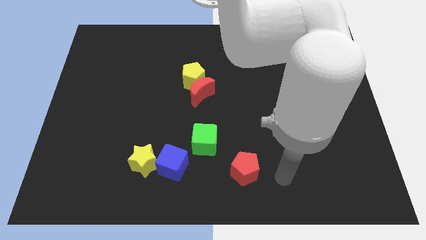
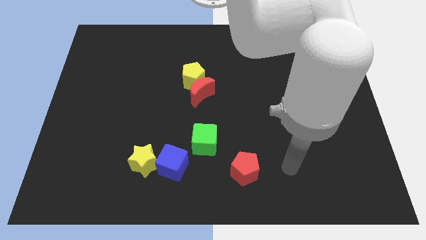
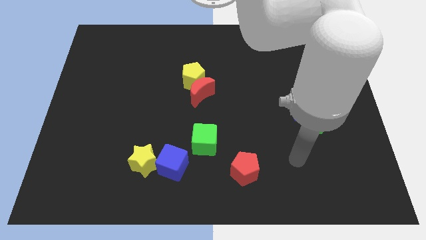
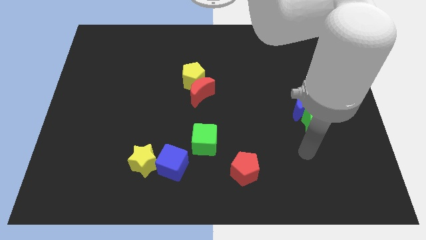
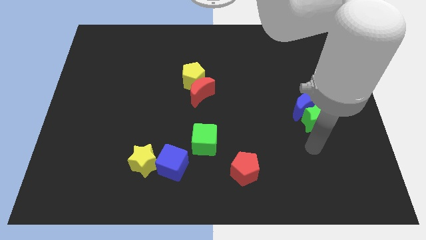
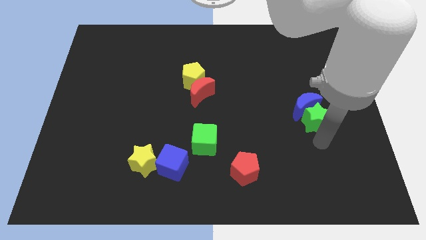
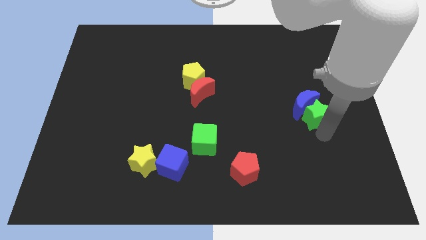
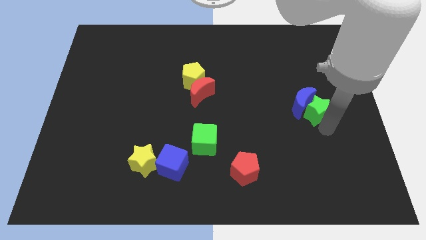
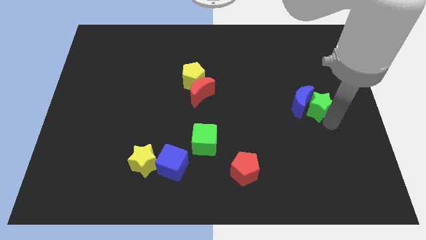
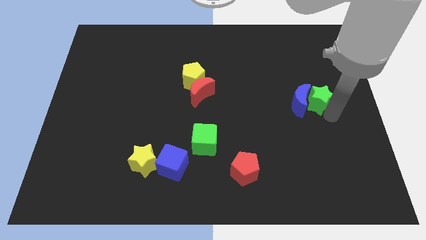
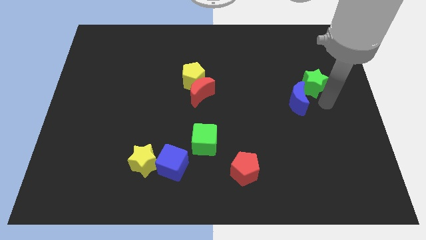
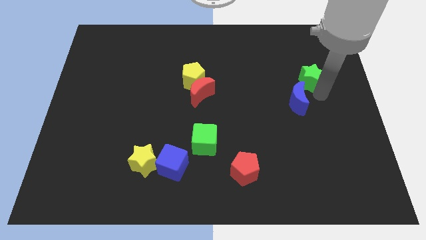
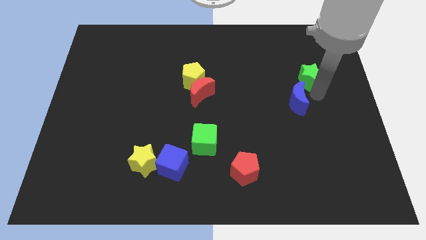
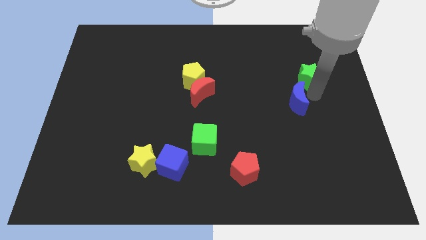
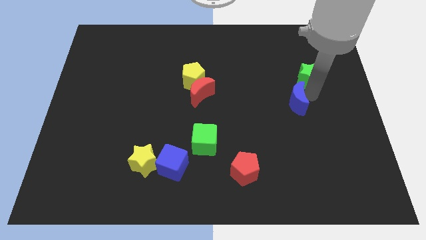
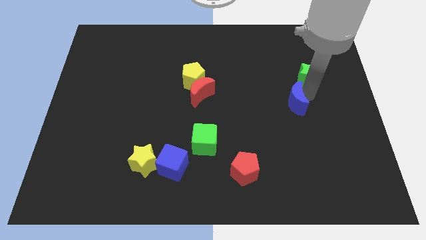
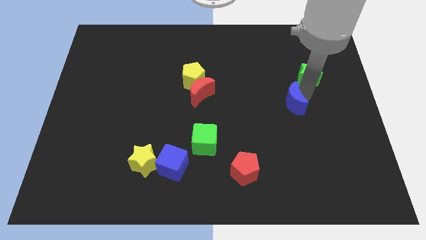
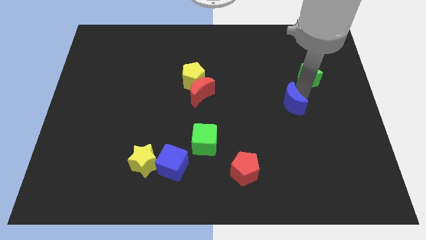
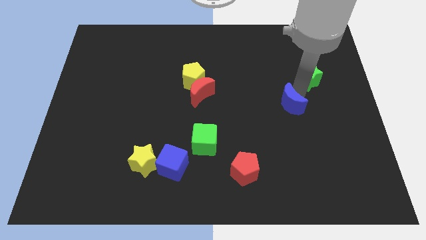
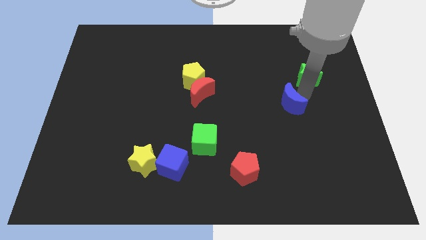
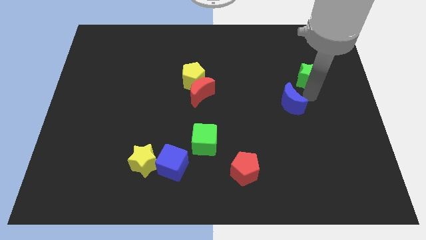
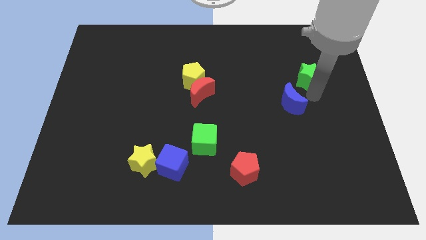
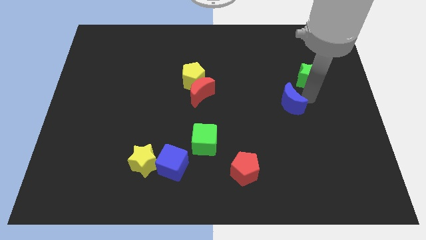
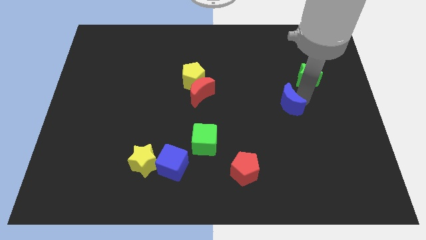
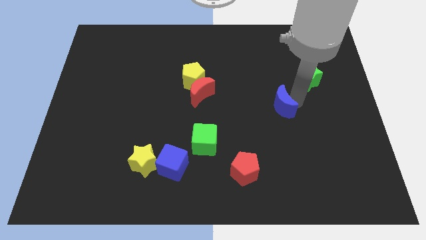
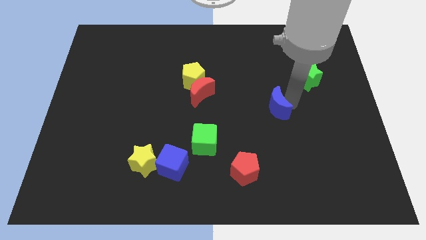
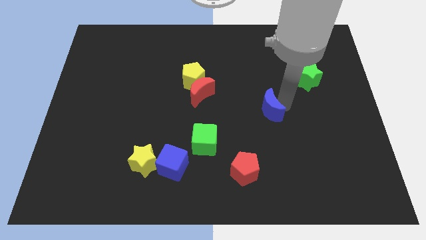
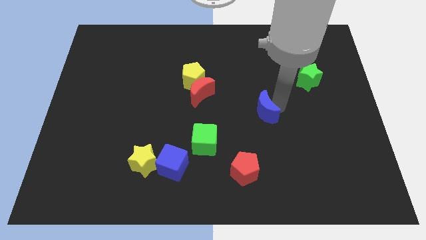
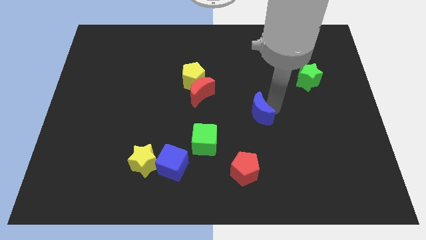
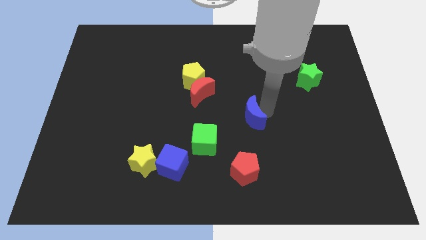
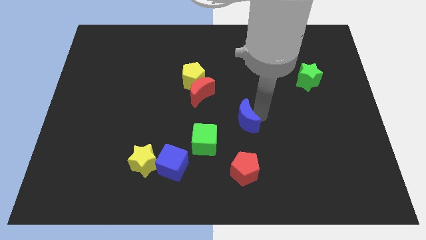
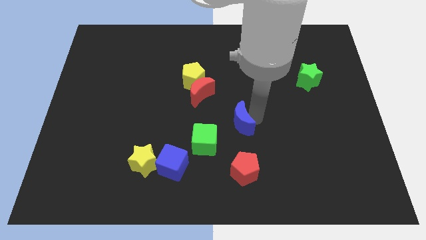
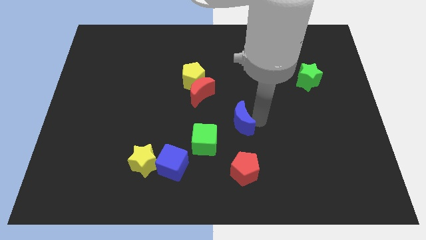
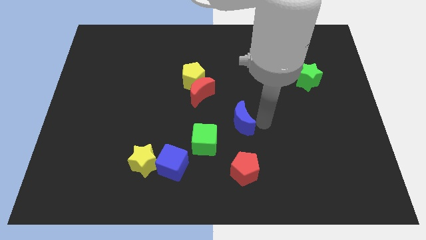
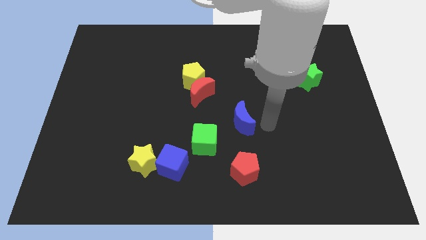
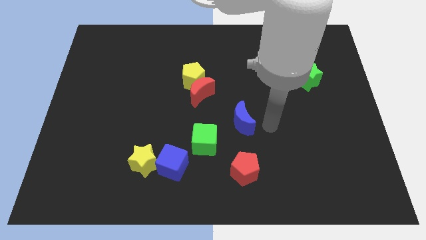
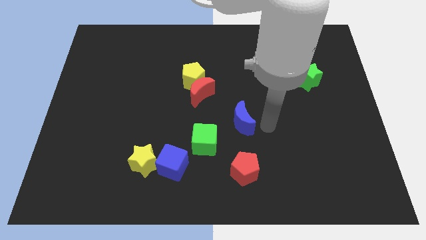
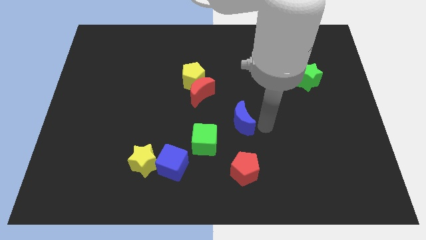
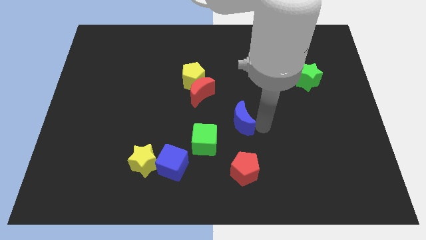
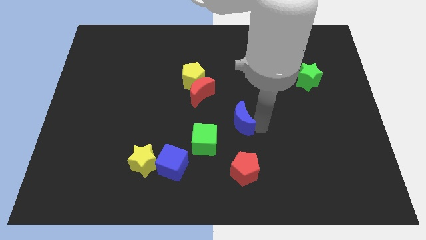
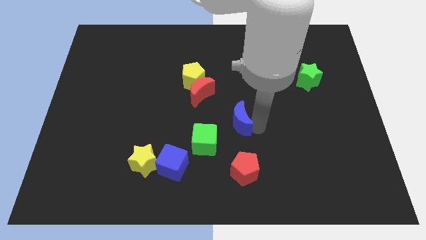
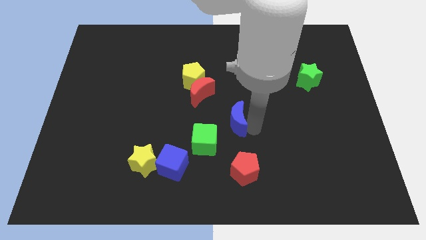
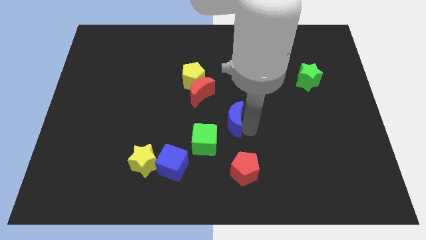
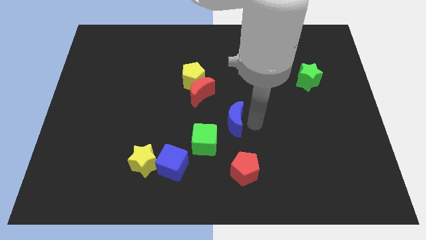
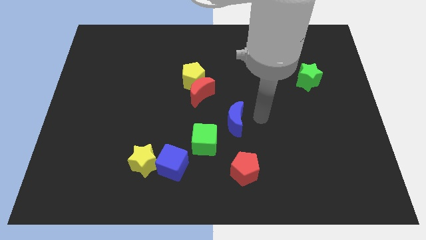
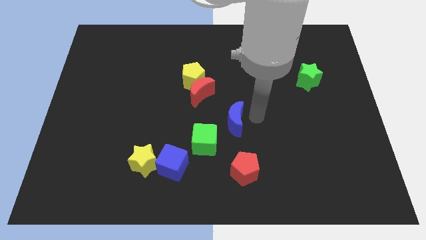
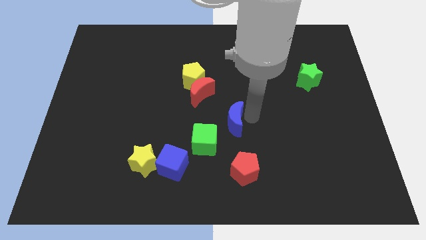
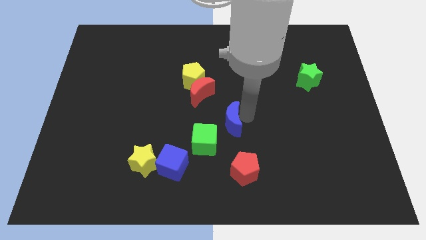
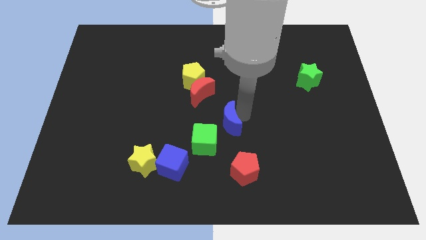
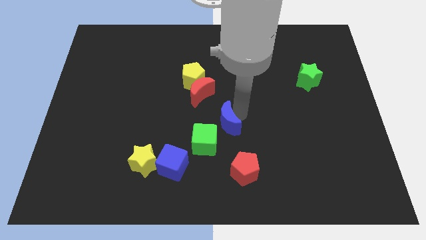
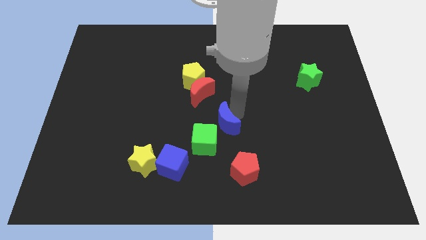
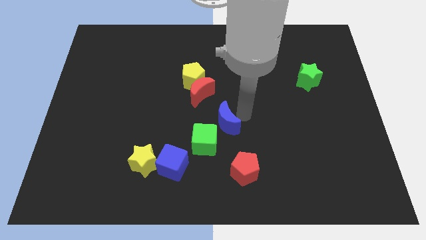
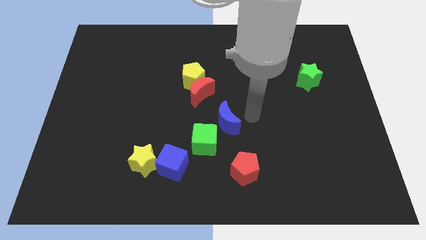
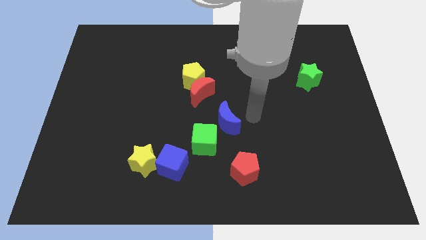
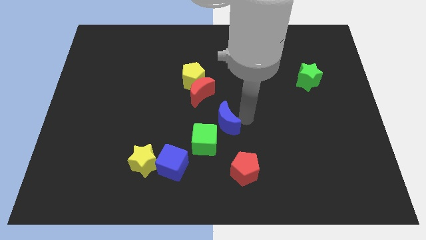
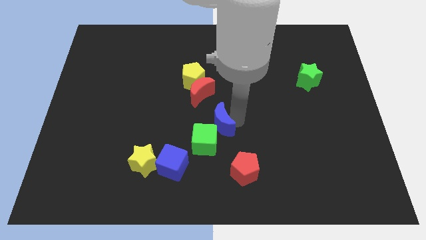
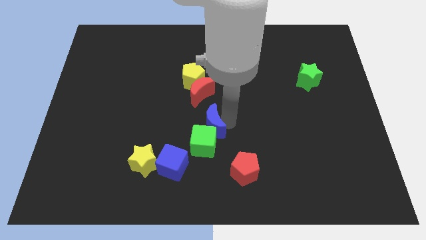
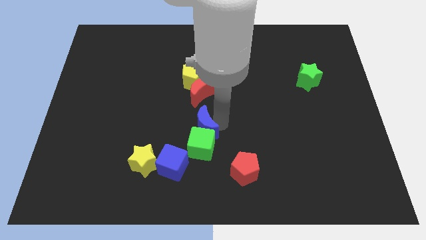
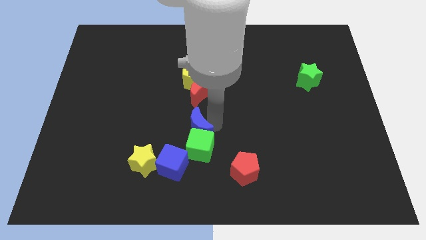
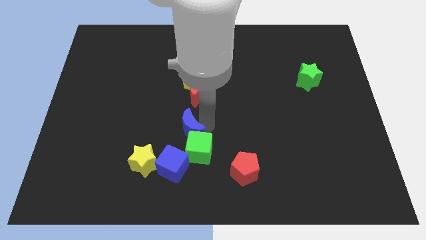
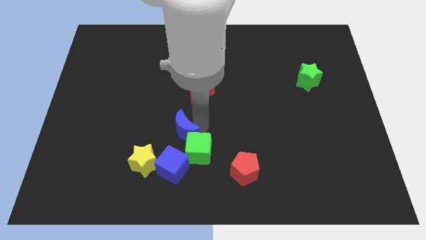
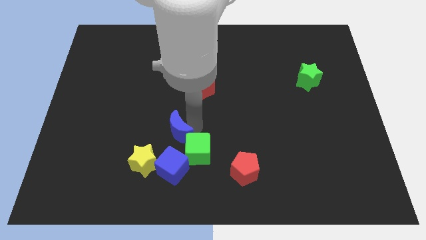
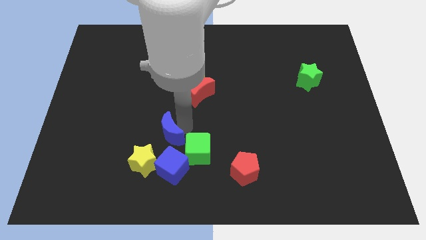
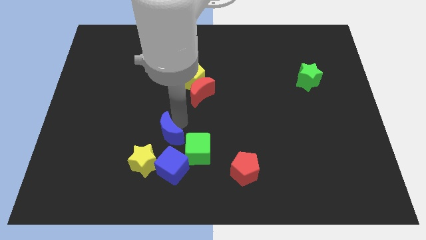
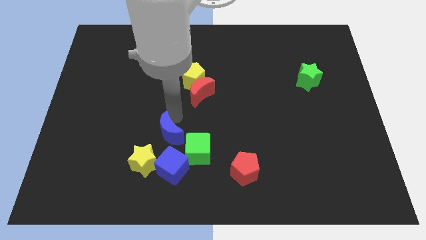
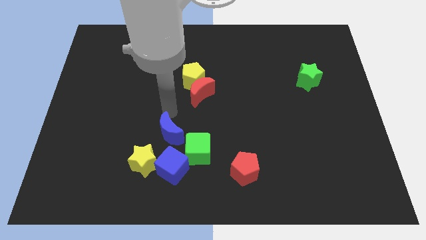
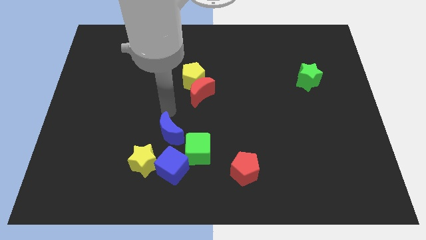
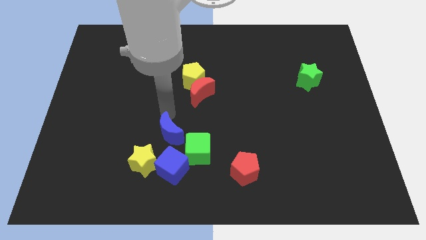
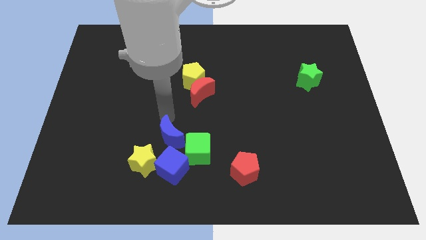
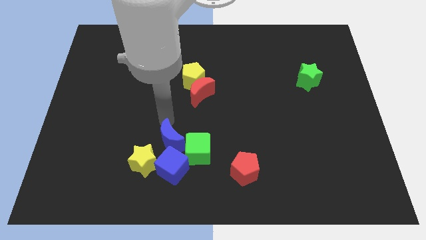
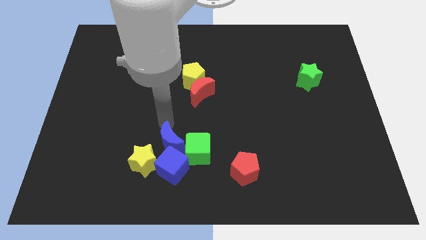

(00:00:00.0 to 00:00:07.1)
push the blue moon towards the blue cube
